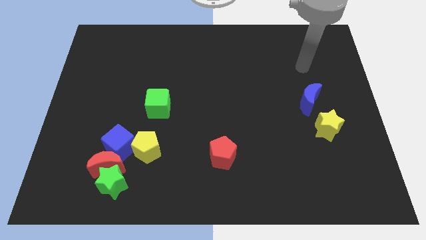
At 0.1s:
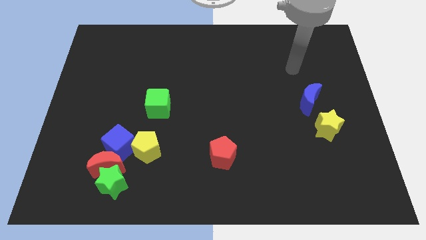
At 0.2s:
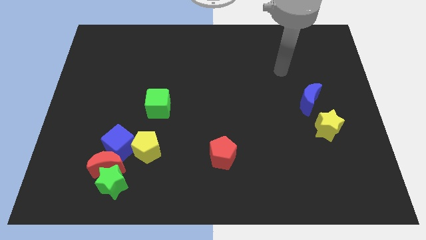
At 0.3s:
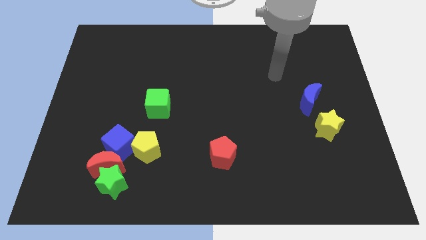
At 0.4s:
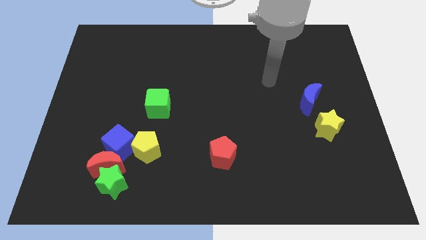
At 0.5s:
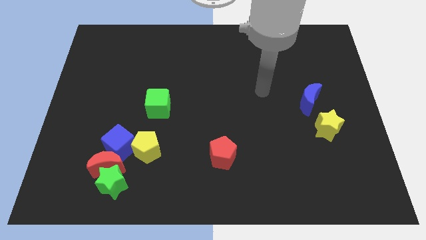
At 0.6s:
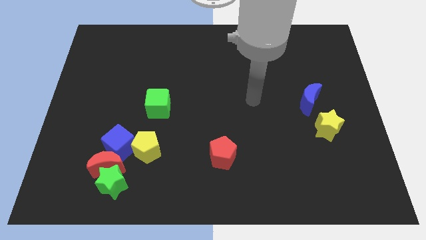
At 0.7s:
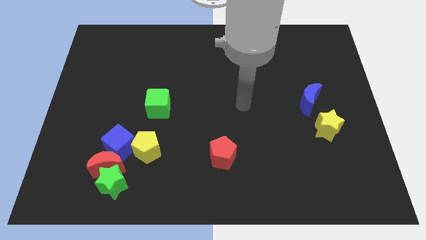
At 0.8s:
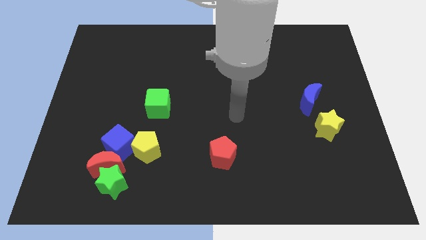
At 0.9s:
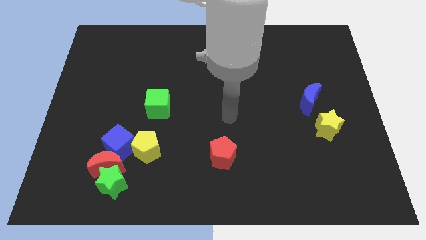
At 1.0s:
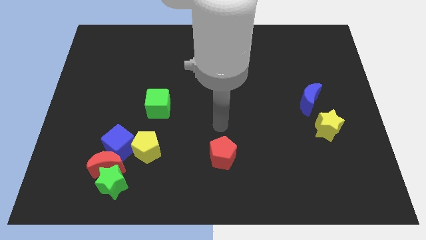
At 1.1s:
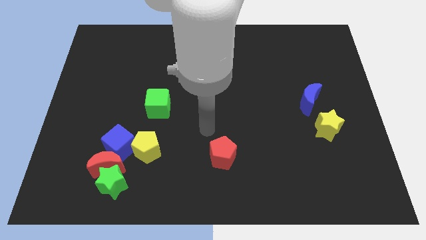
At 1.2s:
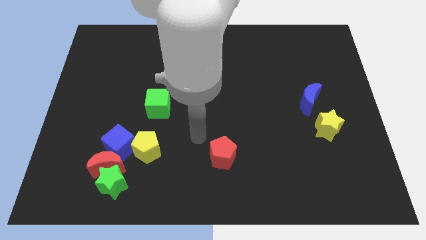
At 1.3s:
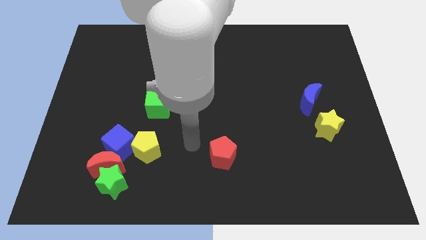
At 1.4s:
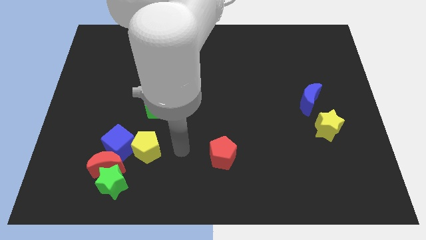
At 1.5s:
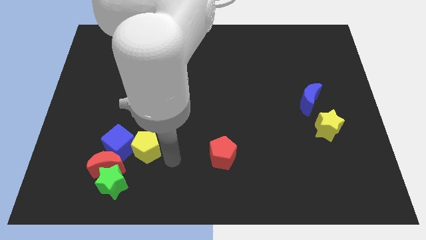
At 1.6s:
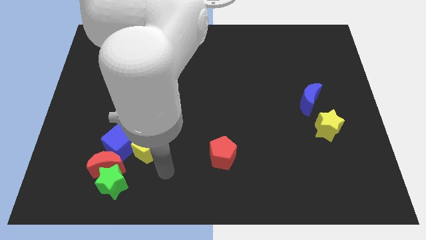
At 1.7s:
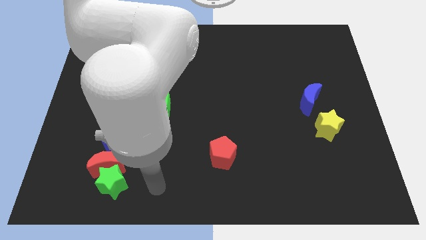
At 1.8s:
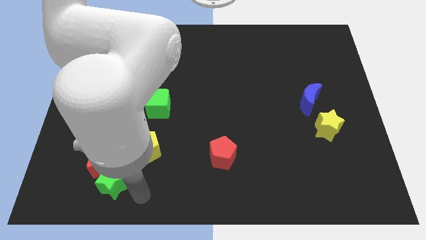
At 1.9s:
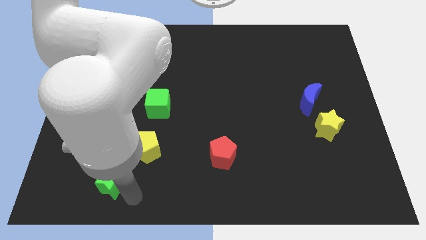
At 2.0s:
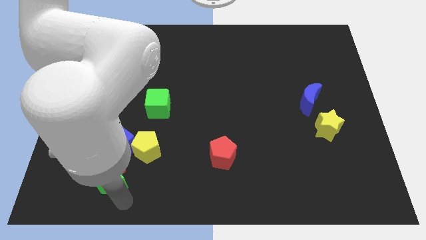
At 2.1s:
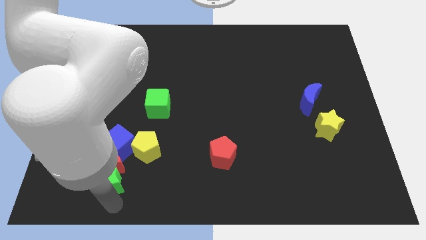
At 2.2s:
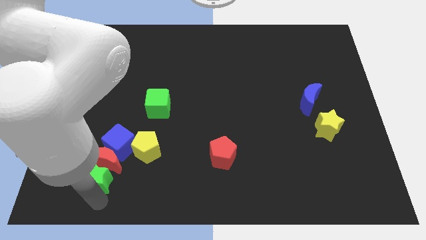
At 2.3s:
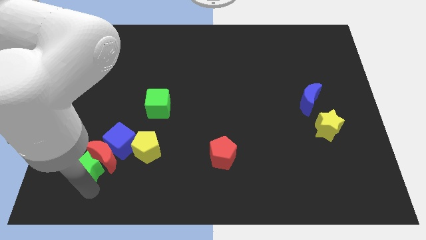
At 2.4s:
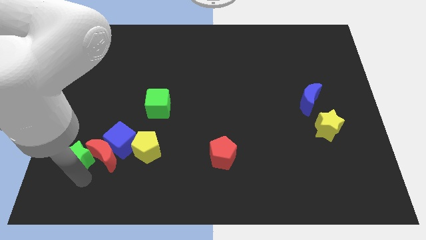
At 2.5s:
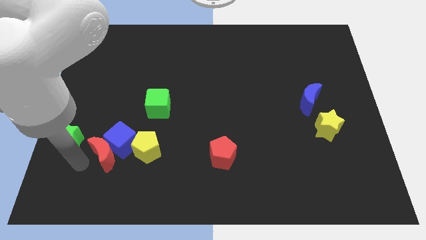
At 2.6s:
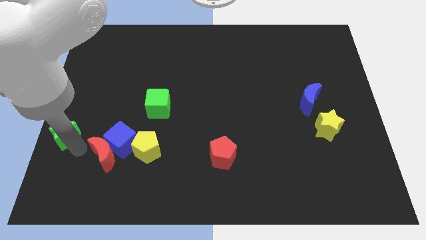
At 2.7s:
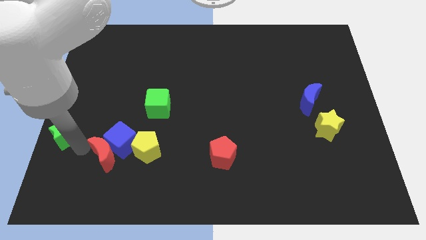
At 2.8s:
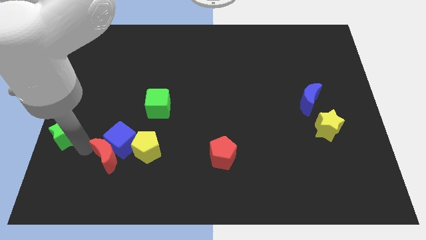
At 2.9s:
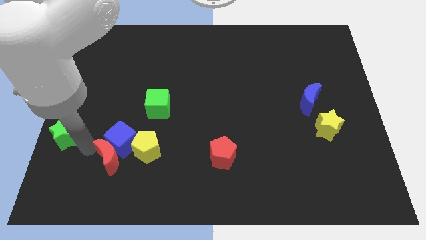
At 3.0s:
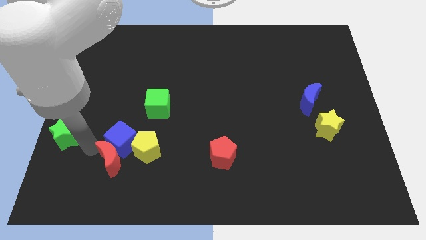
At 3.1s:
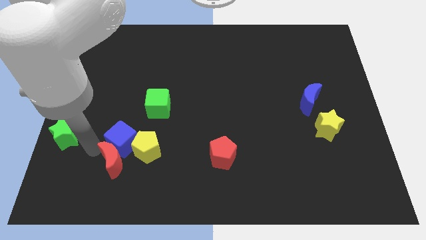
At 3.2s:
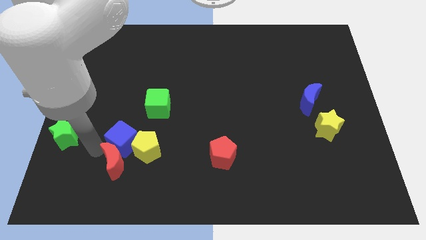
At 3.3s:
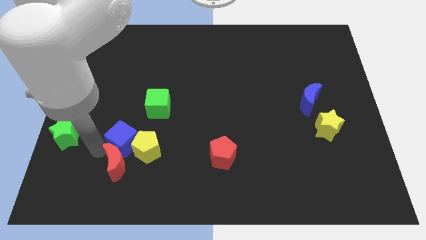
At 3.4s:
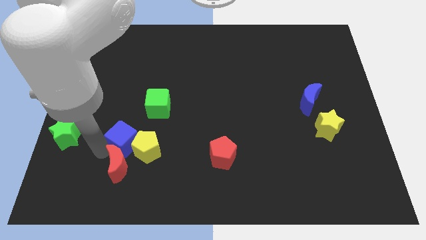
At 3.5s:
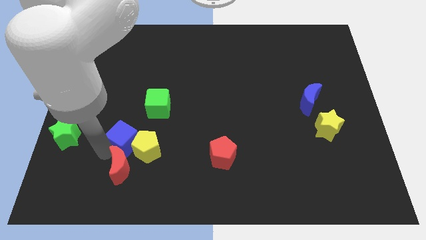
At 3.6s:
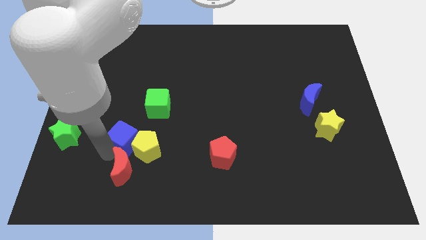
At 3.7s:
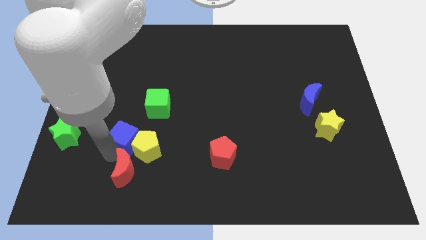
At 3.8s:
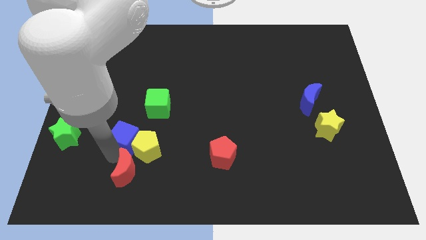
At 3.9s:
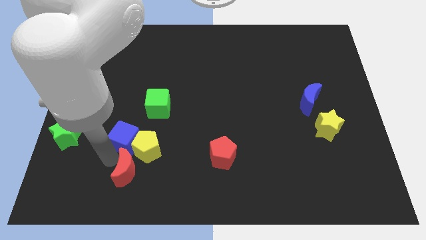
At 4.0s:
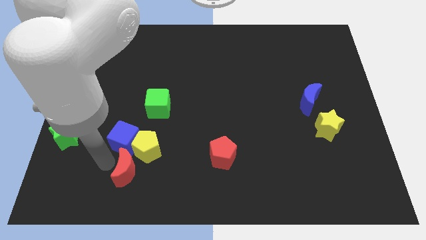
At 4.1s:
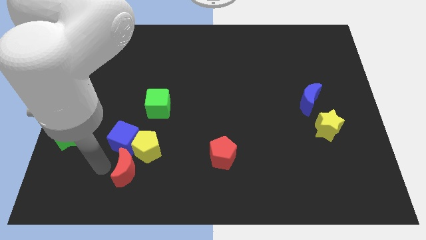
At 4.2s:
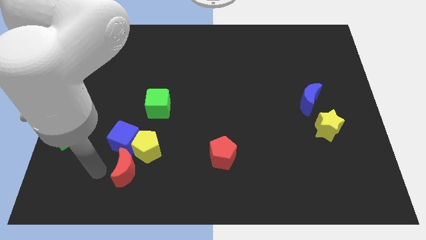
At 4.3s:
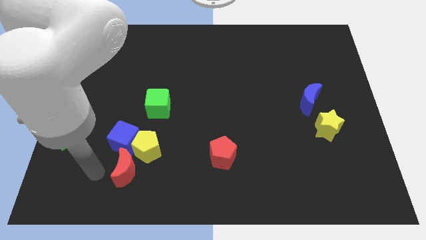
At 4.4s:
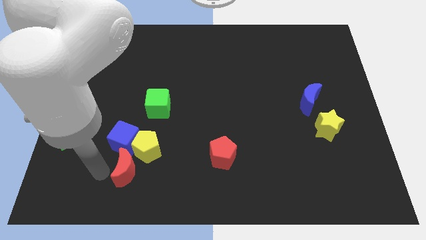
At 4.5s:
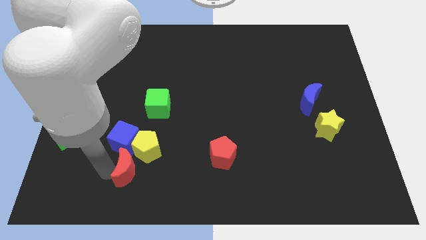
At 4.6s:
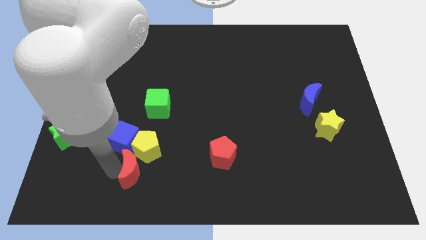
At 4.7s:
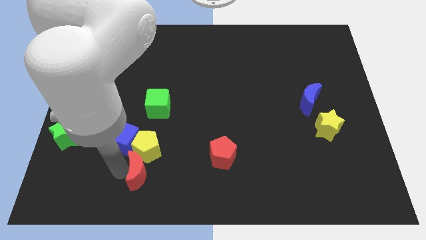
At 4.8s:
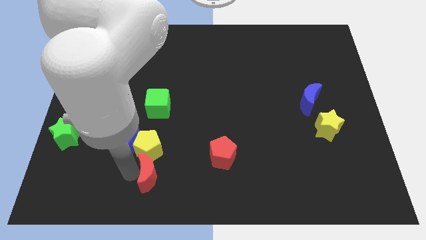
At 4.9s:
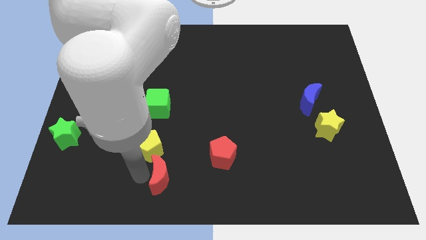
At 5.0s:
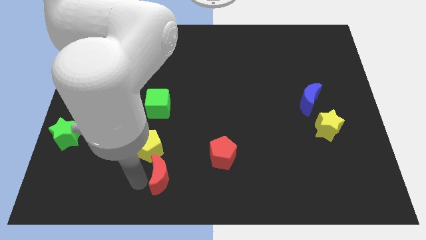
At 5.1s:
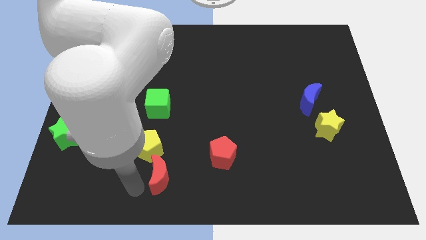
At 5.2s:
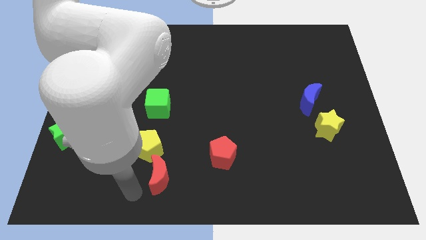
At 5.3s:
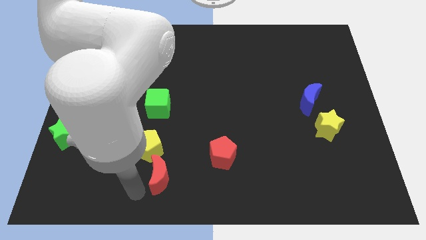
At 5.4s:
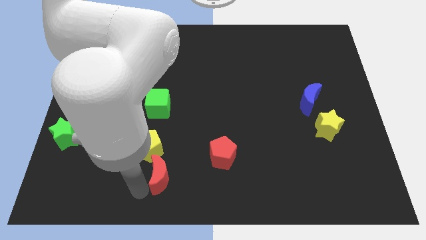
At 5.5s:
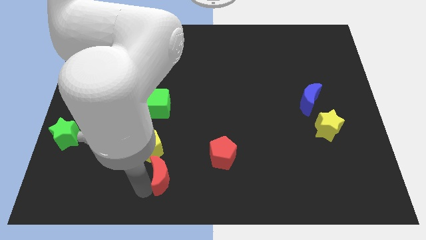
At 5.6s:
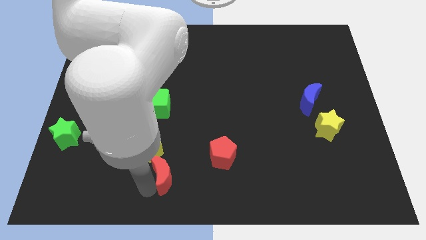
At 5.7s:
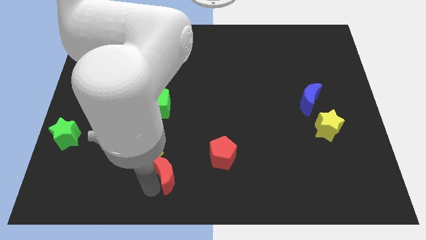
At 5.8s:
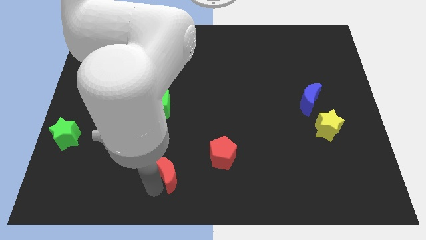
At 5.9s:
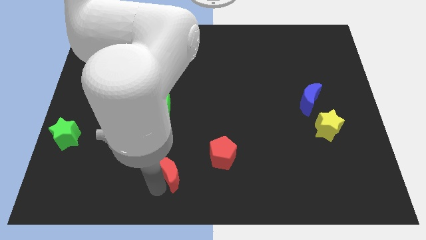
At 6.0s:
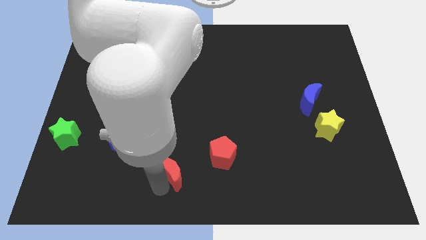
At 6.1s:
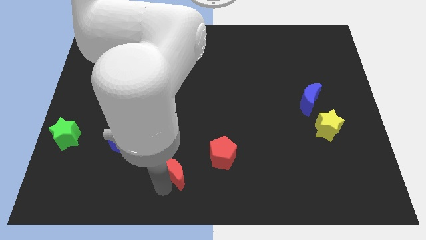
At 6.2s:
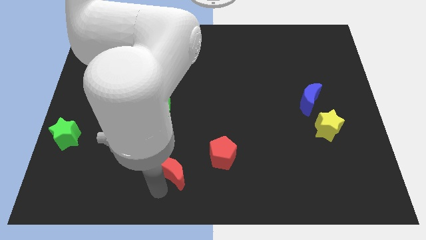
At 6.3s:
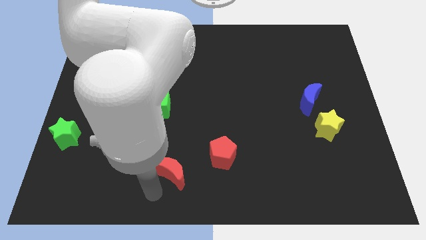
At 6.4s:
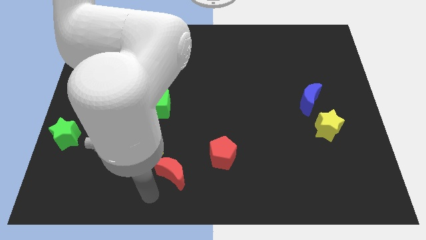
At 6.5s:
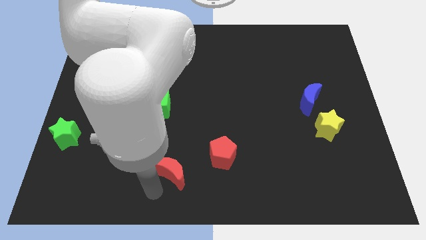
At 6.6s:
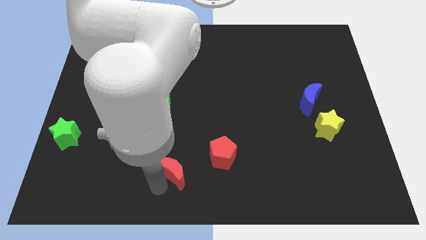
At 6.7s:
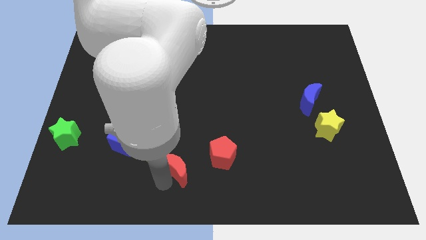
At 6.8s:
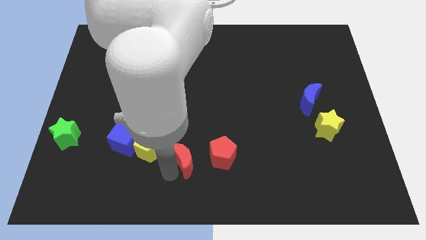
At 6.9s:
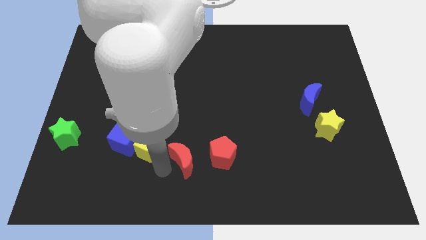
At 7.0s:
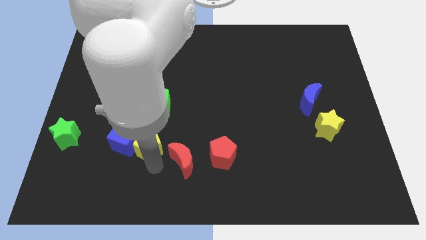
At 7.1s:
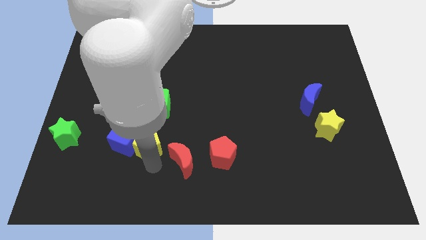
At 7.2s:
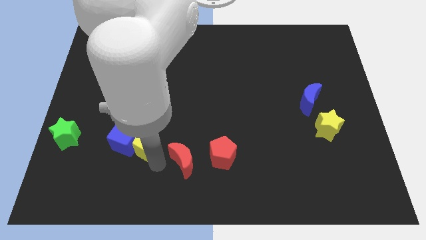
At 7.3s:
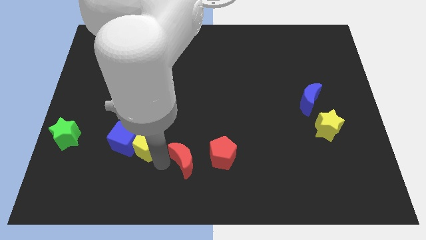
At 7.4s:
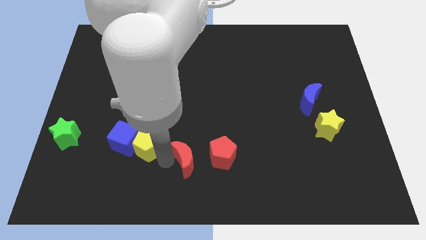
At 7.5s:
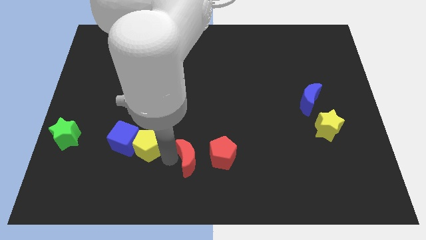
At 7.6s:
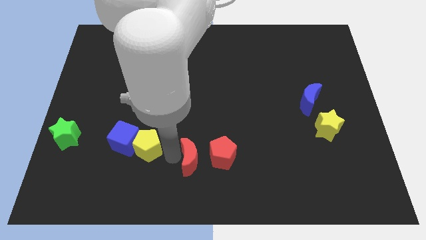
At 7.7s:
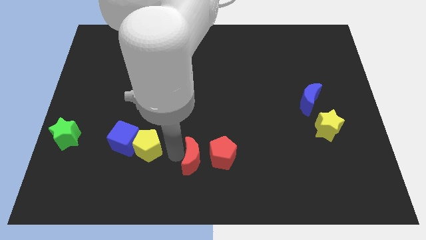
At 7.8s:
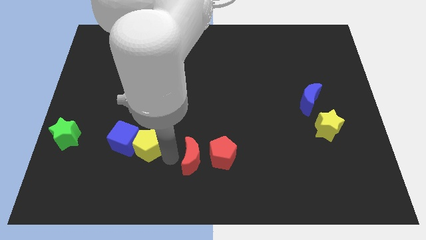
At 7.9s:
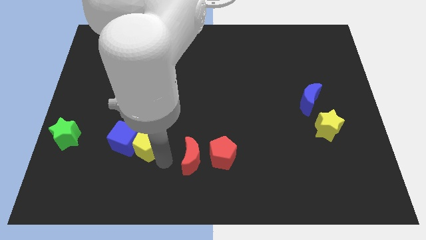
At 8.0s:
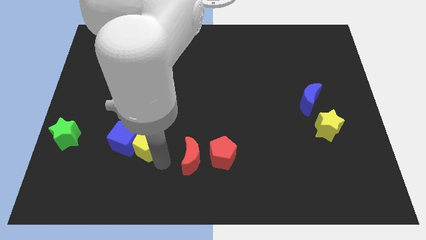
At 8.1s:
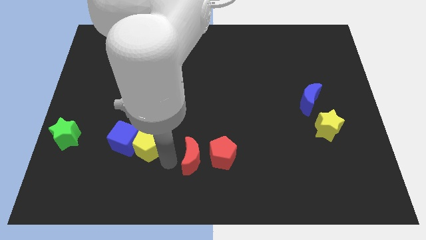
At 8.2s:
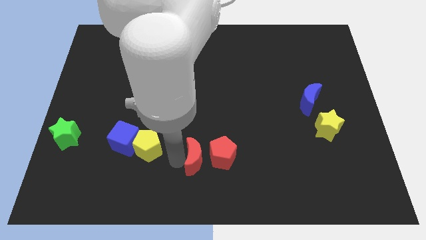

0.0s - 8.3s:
push the red moon close to the red pentagon
